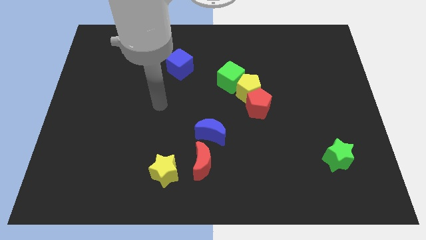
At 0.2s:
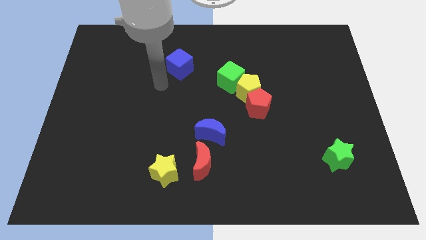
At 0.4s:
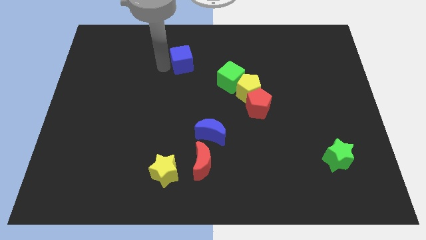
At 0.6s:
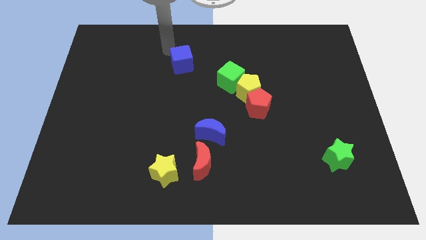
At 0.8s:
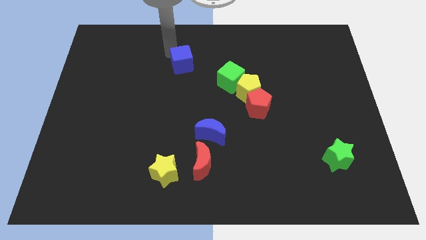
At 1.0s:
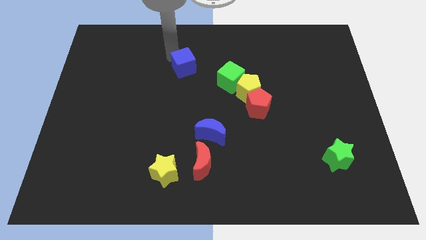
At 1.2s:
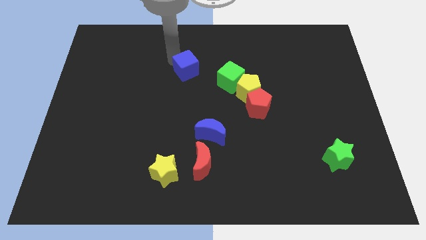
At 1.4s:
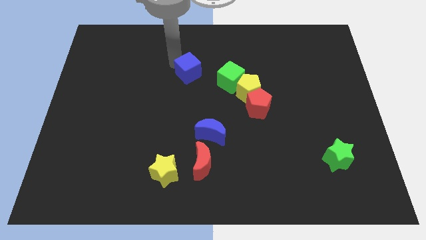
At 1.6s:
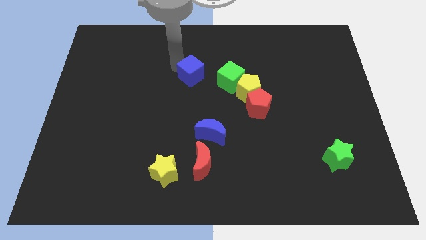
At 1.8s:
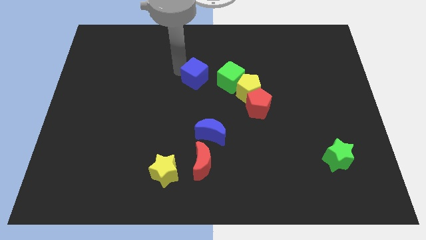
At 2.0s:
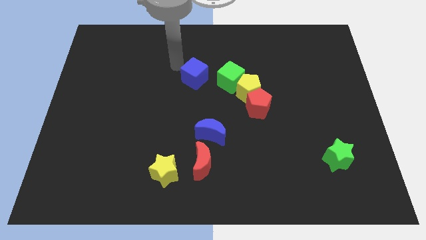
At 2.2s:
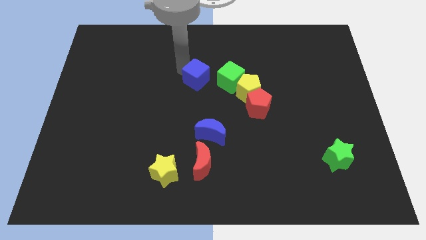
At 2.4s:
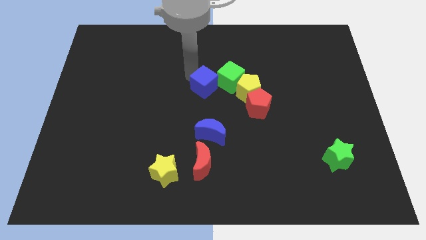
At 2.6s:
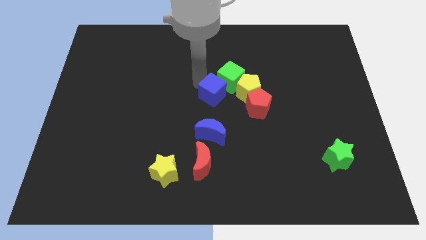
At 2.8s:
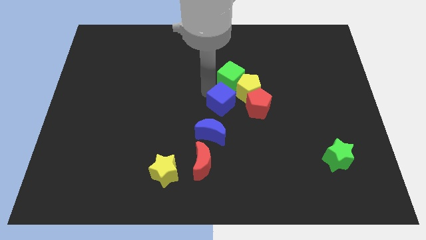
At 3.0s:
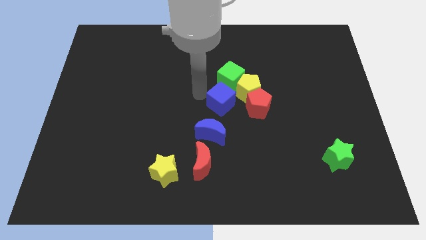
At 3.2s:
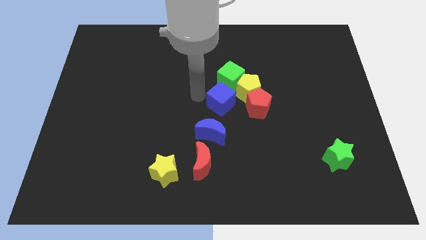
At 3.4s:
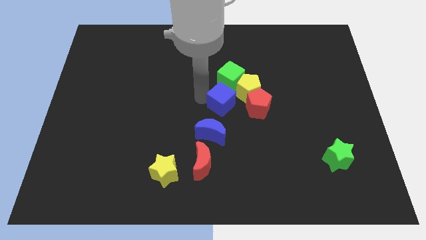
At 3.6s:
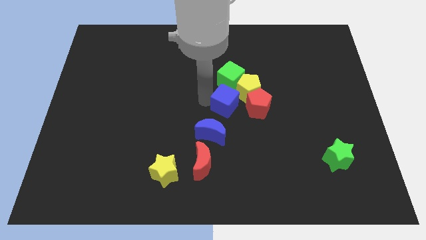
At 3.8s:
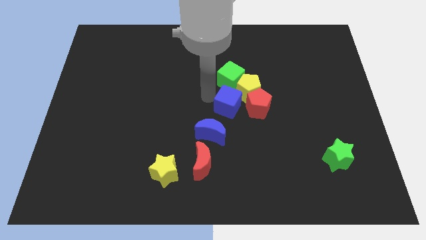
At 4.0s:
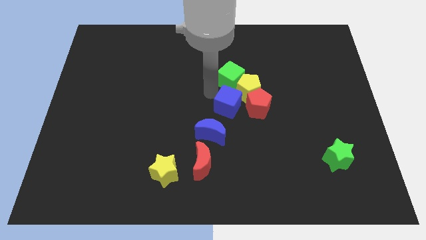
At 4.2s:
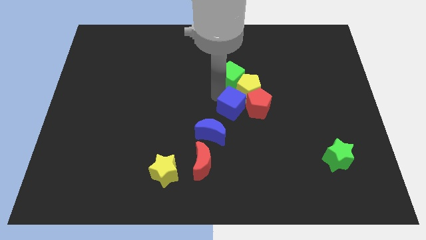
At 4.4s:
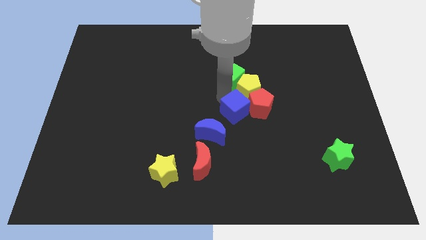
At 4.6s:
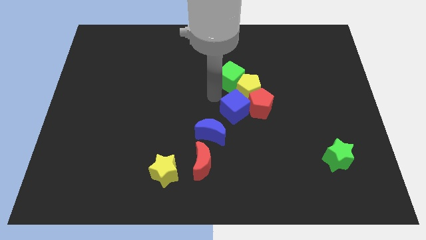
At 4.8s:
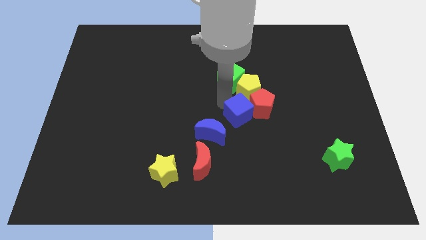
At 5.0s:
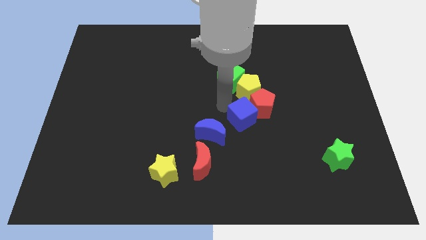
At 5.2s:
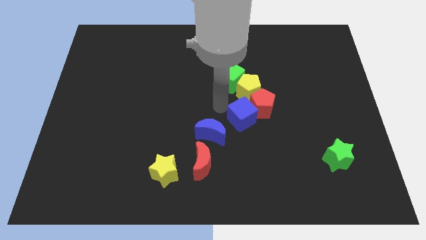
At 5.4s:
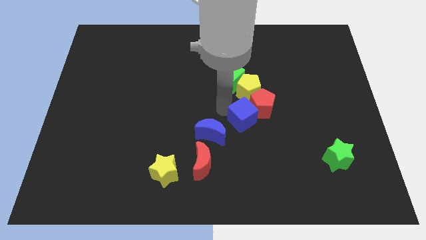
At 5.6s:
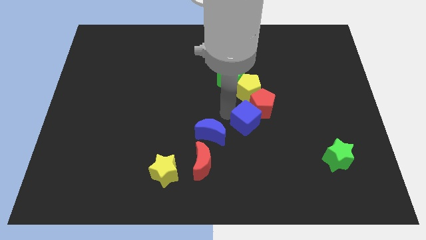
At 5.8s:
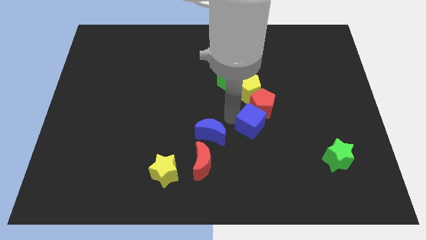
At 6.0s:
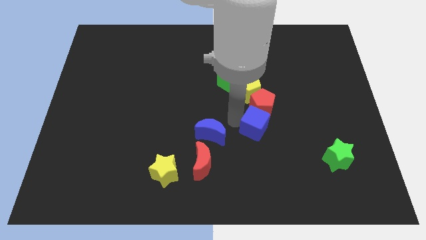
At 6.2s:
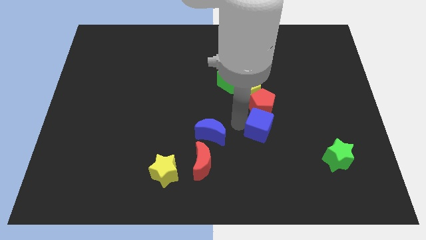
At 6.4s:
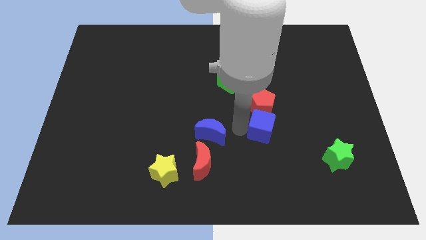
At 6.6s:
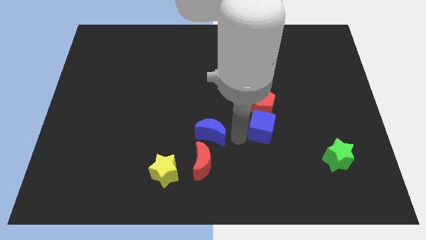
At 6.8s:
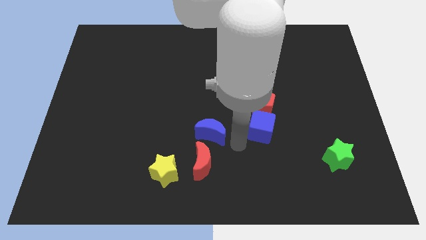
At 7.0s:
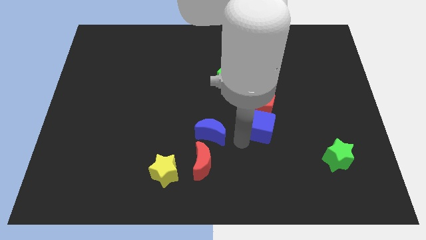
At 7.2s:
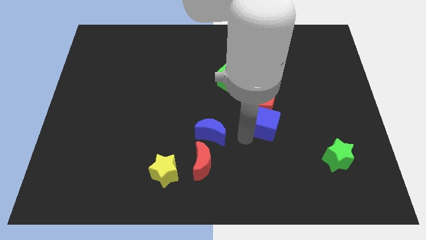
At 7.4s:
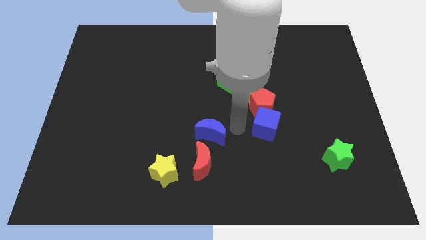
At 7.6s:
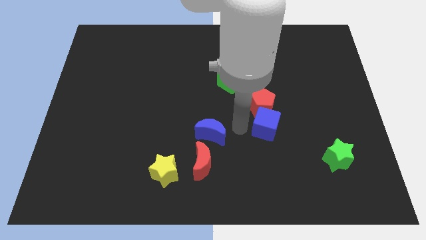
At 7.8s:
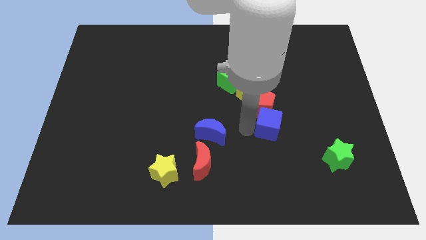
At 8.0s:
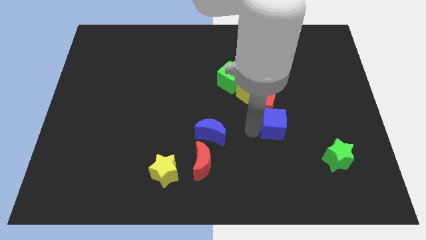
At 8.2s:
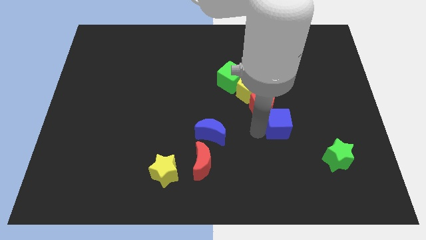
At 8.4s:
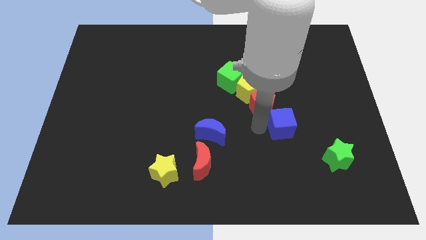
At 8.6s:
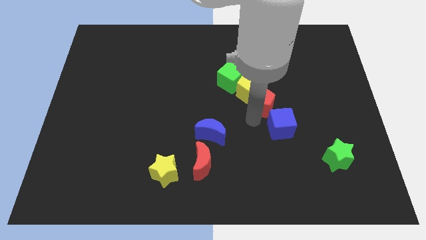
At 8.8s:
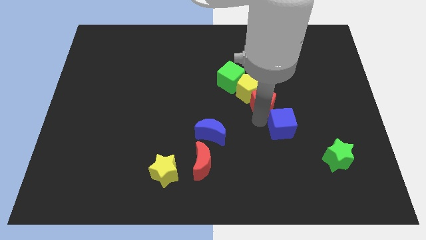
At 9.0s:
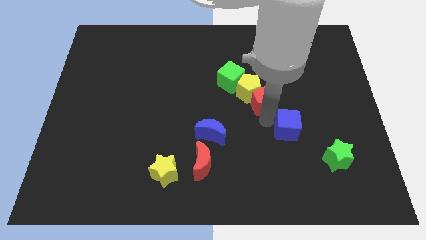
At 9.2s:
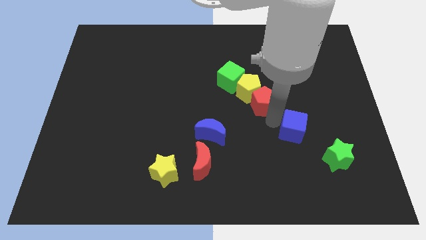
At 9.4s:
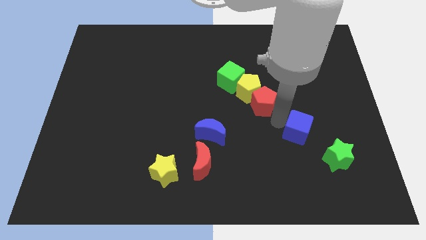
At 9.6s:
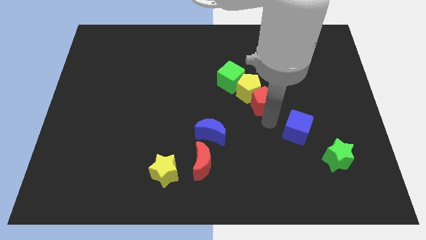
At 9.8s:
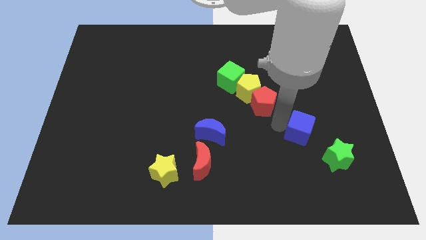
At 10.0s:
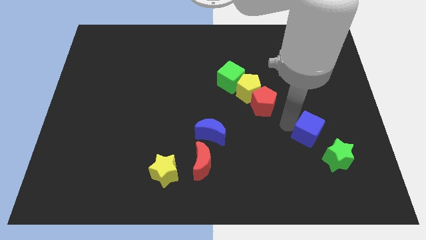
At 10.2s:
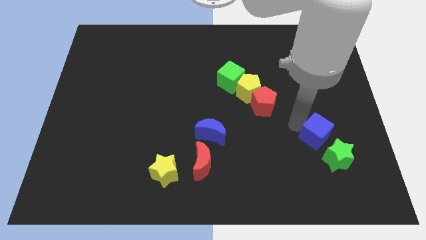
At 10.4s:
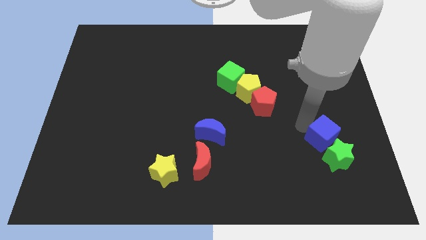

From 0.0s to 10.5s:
move the blue cube next to the green star

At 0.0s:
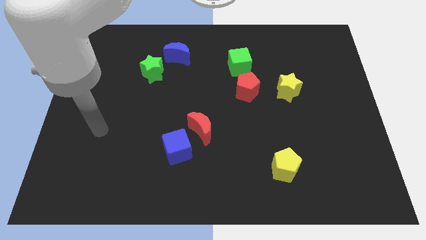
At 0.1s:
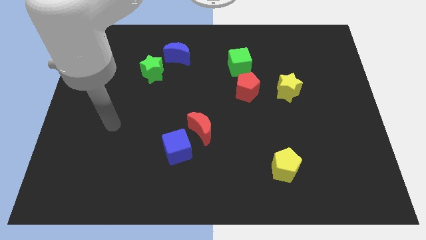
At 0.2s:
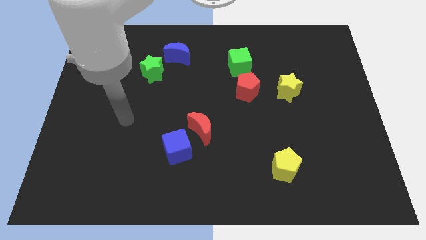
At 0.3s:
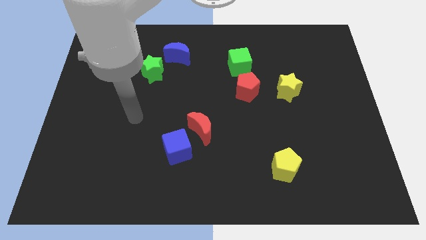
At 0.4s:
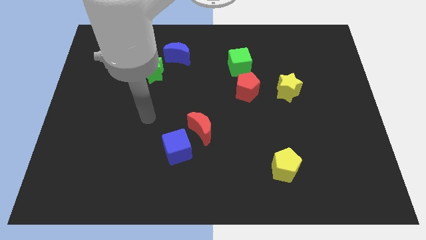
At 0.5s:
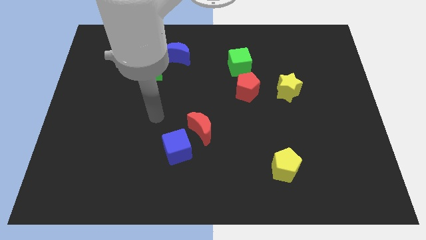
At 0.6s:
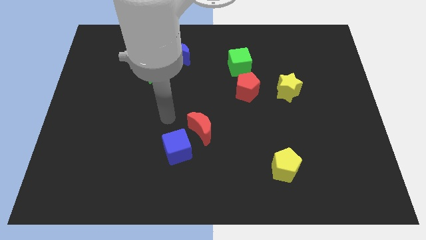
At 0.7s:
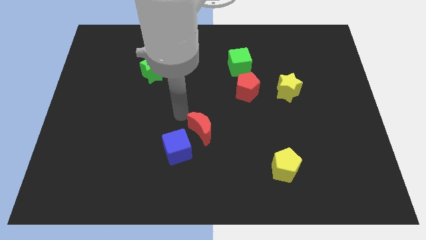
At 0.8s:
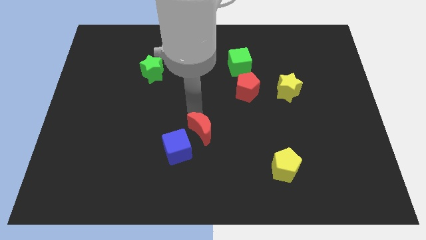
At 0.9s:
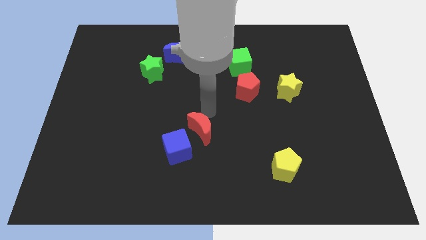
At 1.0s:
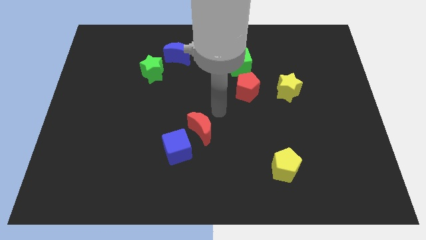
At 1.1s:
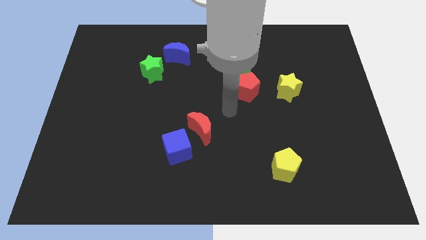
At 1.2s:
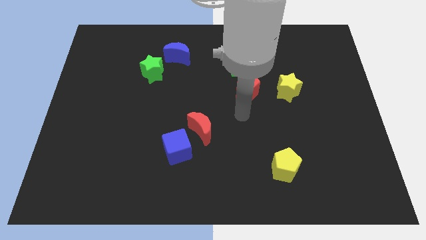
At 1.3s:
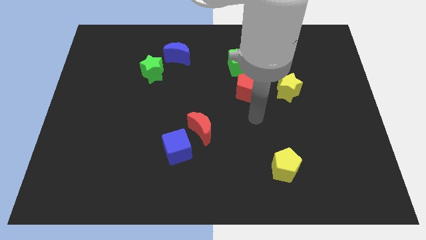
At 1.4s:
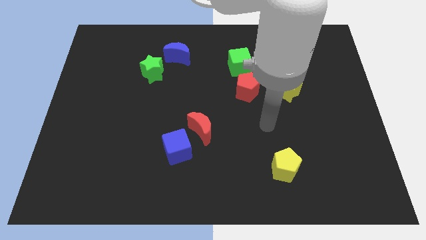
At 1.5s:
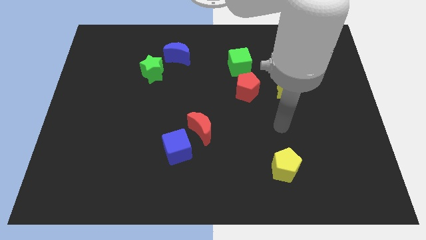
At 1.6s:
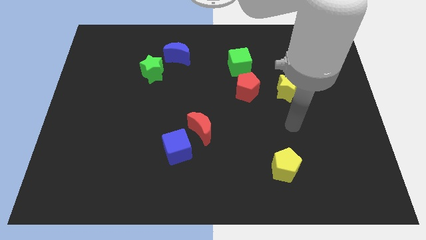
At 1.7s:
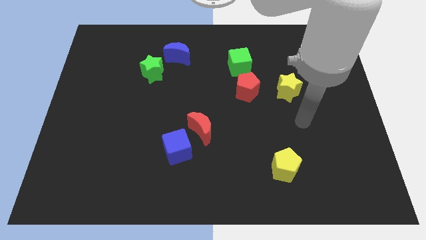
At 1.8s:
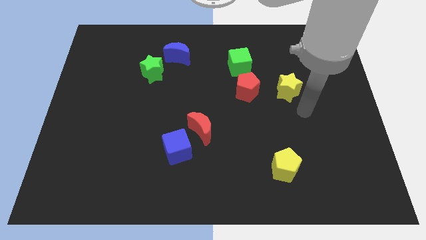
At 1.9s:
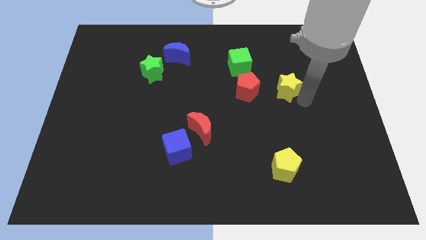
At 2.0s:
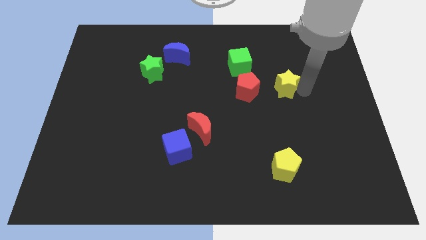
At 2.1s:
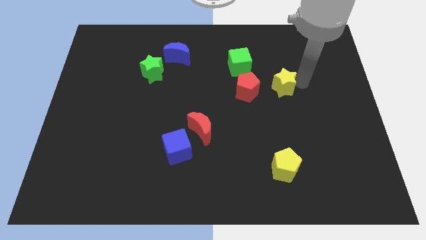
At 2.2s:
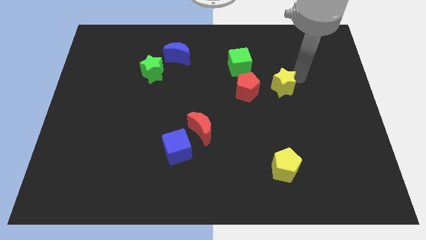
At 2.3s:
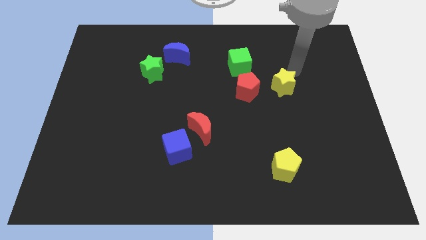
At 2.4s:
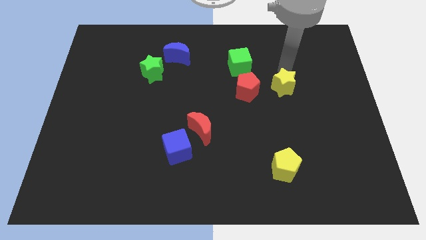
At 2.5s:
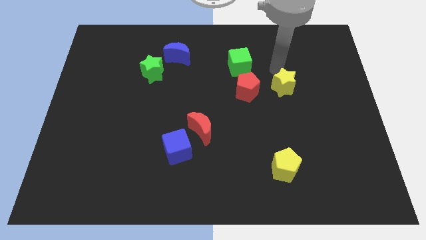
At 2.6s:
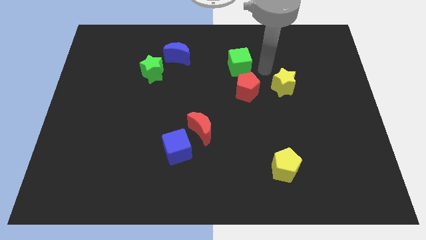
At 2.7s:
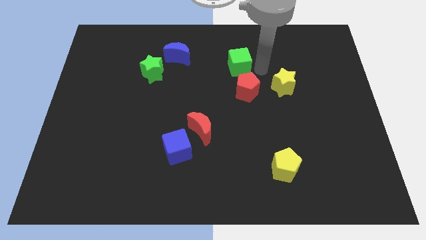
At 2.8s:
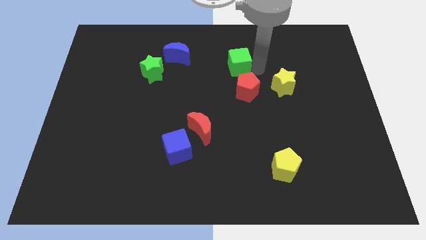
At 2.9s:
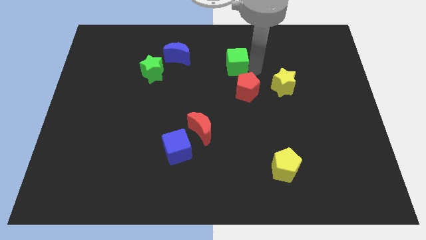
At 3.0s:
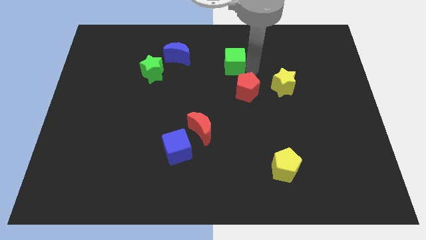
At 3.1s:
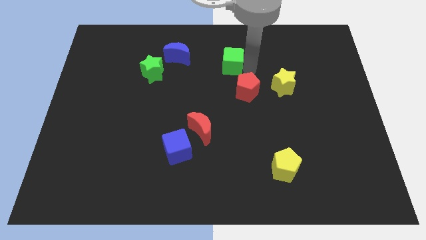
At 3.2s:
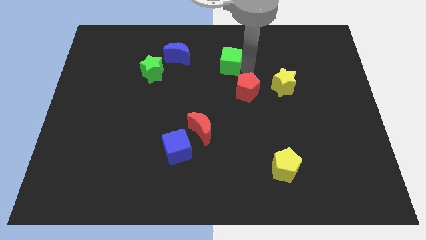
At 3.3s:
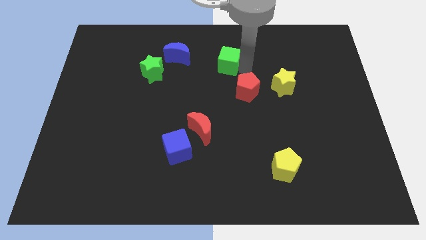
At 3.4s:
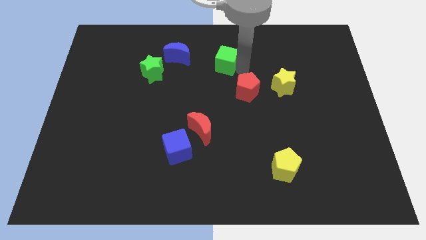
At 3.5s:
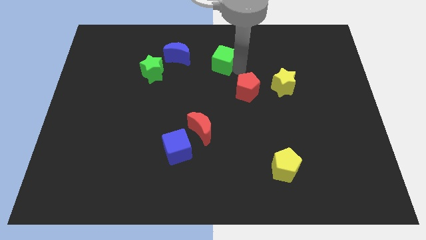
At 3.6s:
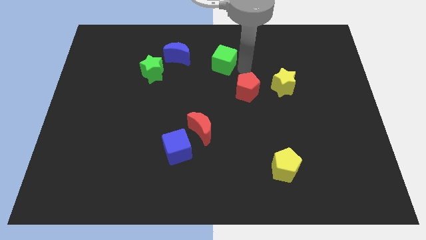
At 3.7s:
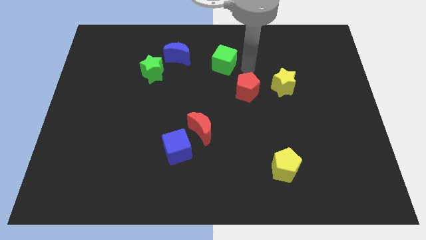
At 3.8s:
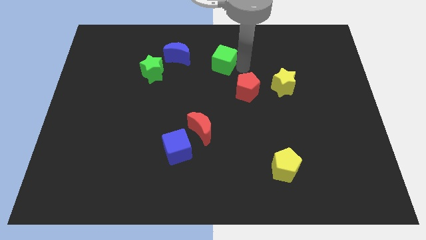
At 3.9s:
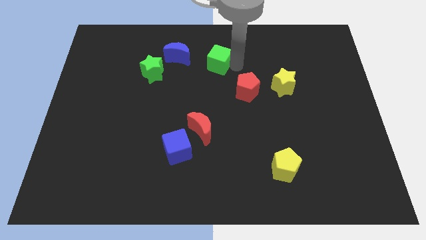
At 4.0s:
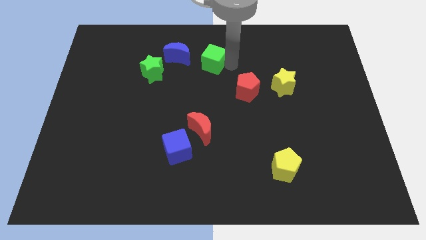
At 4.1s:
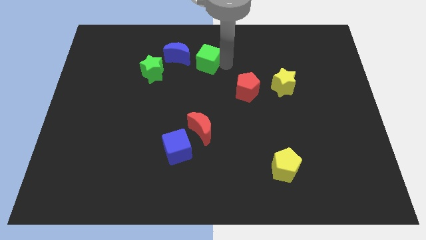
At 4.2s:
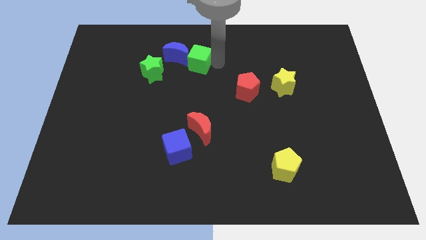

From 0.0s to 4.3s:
slide the green cube next to the blue moon
